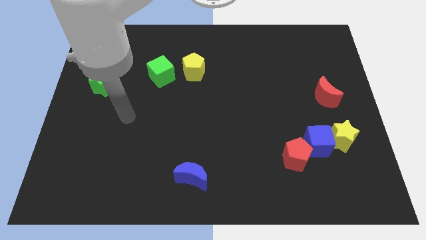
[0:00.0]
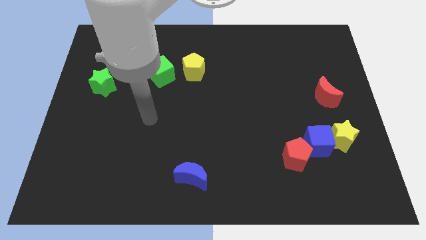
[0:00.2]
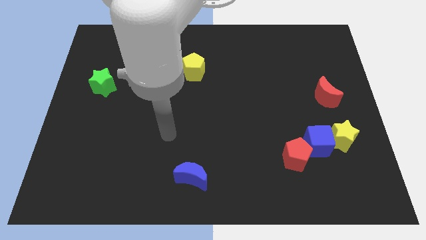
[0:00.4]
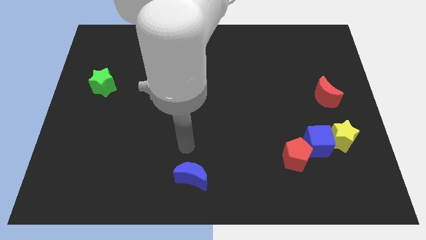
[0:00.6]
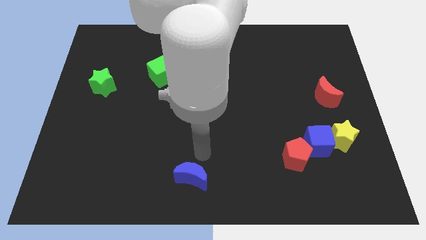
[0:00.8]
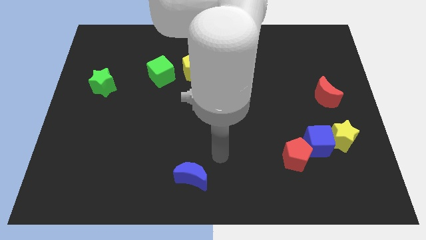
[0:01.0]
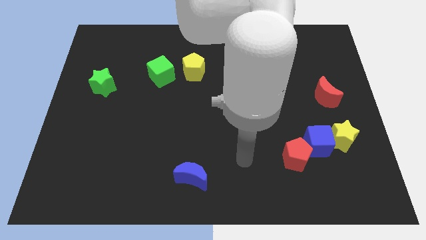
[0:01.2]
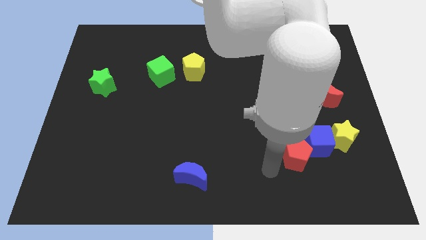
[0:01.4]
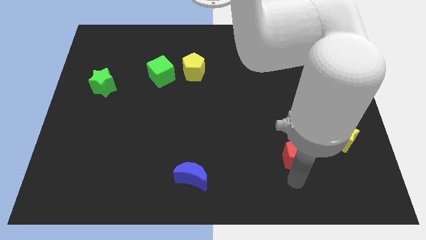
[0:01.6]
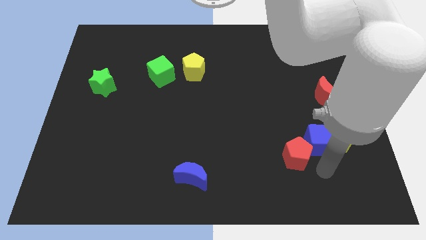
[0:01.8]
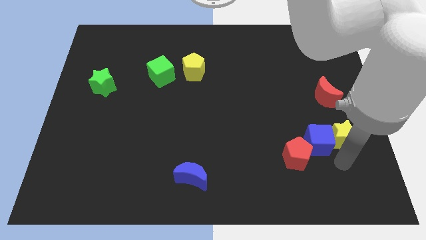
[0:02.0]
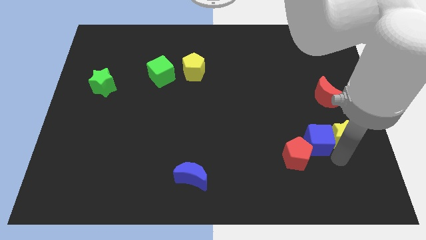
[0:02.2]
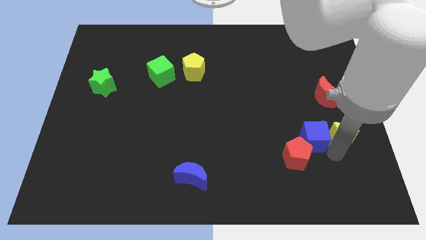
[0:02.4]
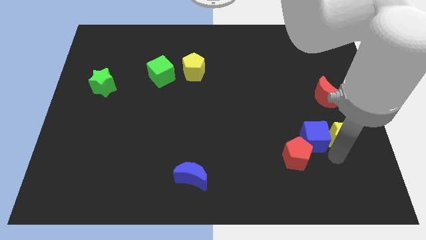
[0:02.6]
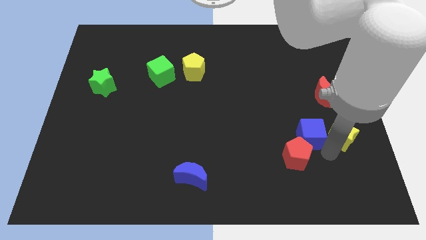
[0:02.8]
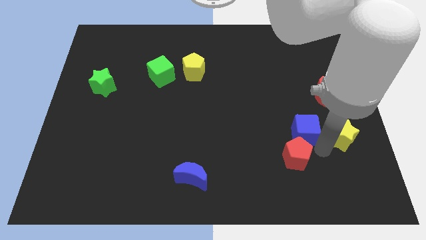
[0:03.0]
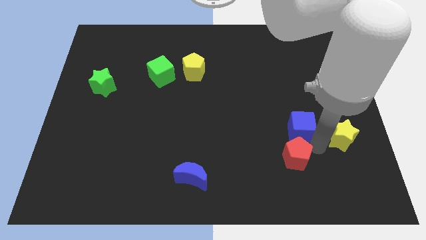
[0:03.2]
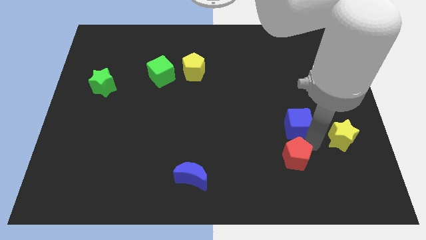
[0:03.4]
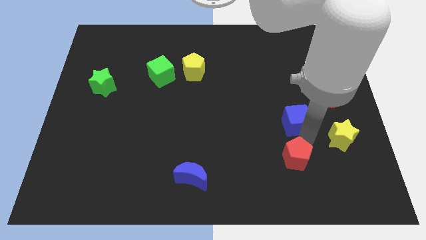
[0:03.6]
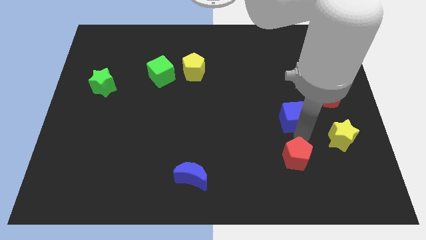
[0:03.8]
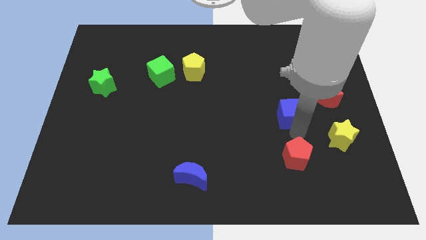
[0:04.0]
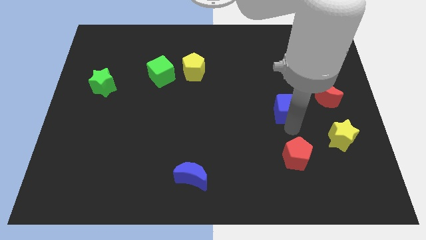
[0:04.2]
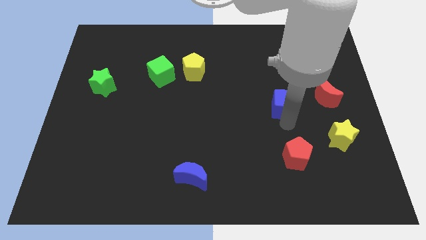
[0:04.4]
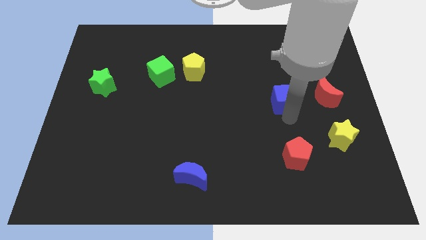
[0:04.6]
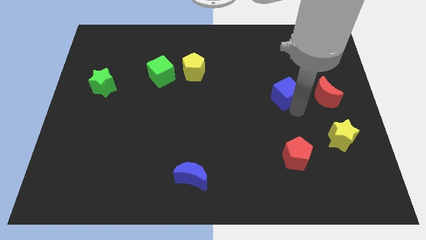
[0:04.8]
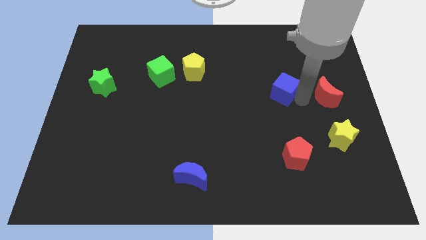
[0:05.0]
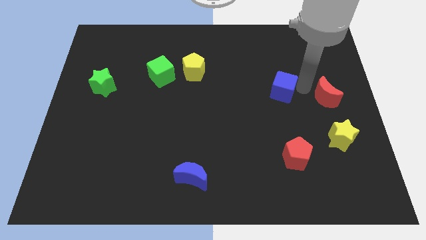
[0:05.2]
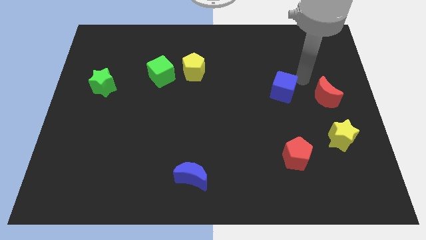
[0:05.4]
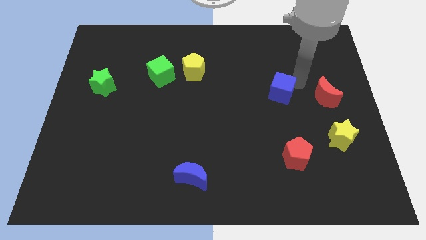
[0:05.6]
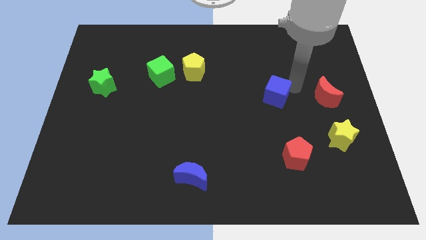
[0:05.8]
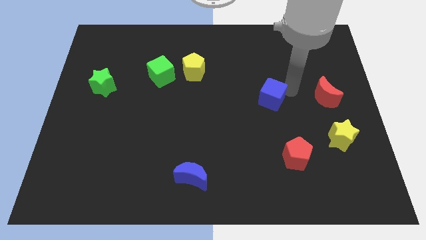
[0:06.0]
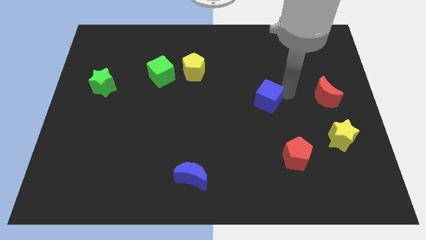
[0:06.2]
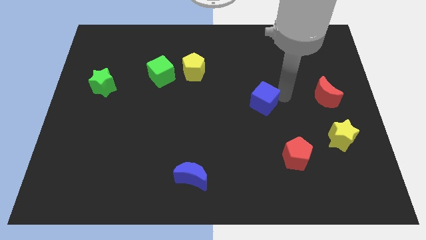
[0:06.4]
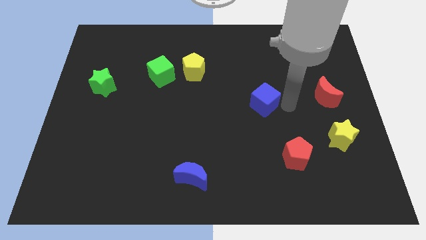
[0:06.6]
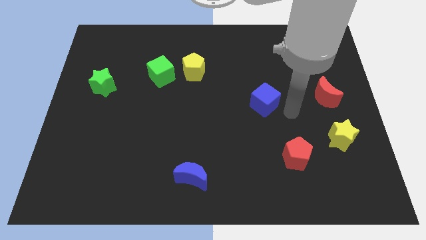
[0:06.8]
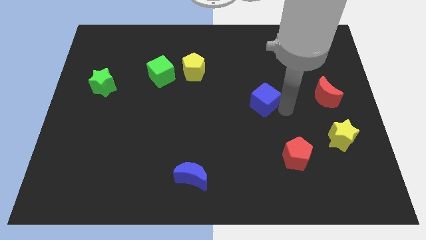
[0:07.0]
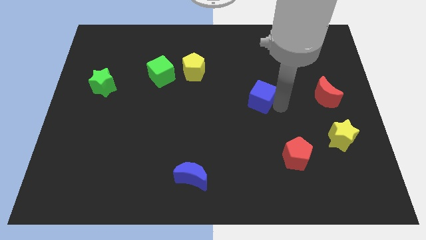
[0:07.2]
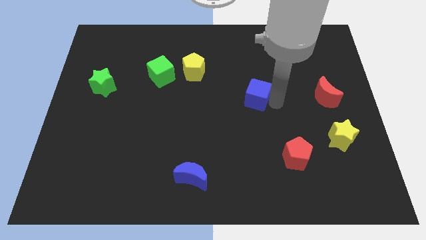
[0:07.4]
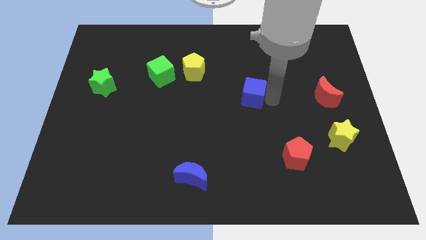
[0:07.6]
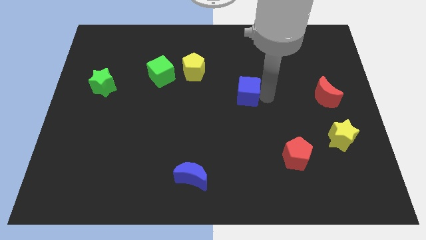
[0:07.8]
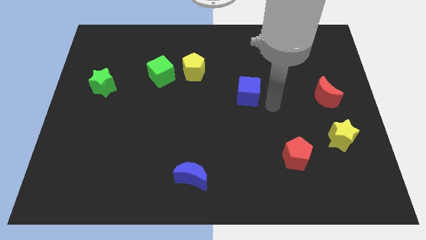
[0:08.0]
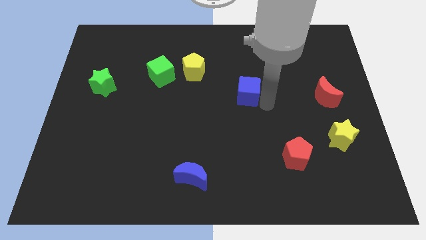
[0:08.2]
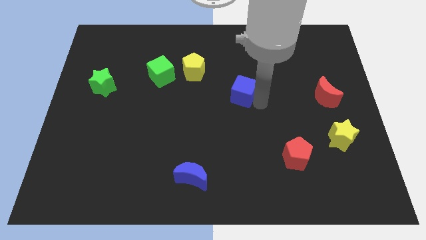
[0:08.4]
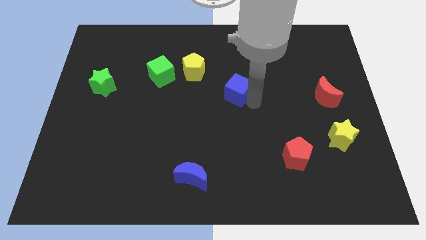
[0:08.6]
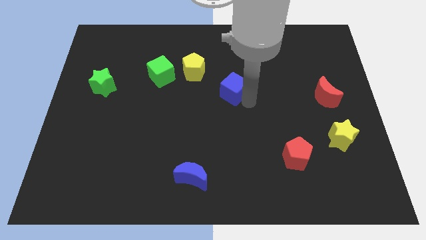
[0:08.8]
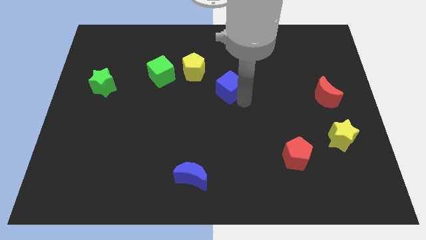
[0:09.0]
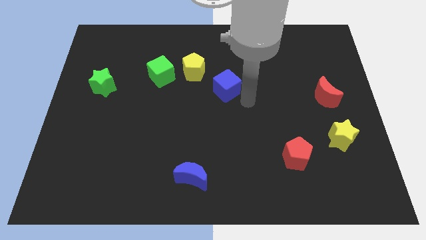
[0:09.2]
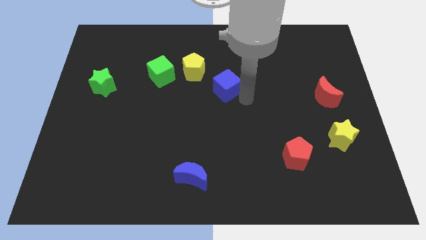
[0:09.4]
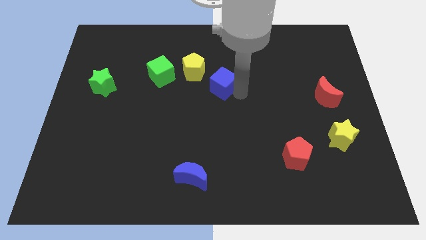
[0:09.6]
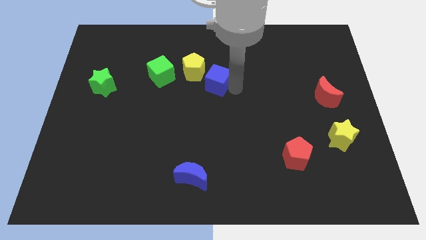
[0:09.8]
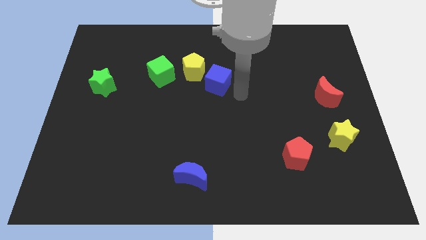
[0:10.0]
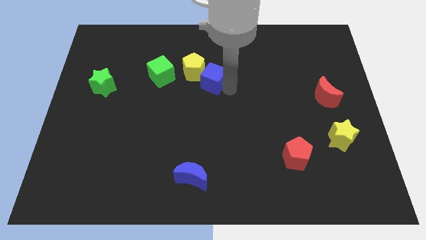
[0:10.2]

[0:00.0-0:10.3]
push the blue cube close to the yellow pentagon
